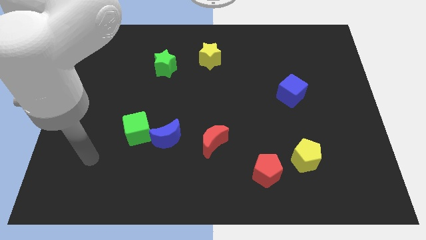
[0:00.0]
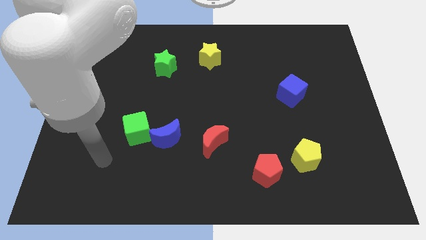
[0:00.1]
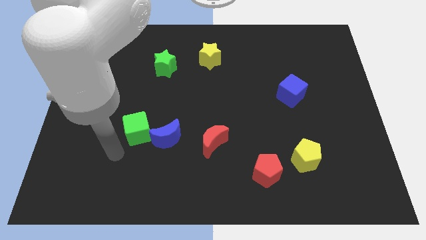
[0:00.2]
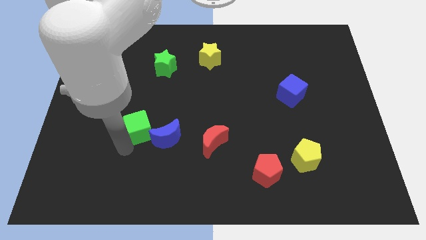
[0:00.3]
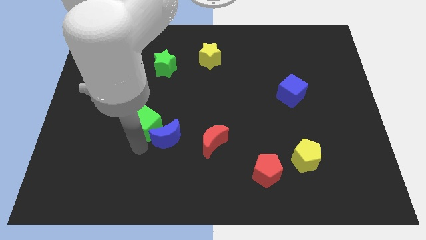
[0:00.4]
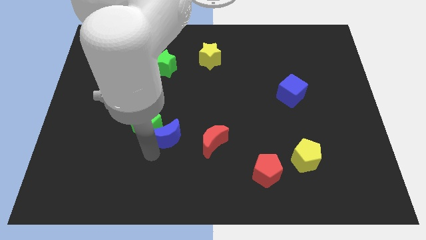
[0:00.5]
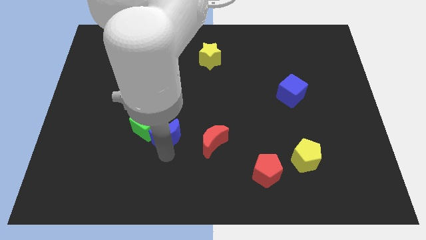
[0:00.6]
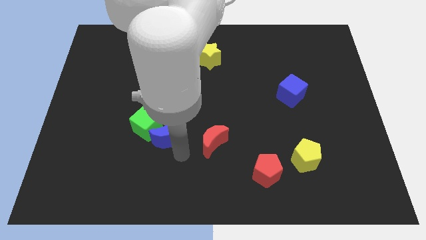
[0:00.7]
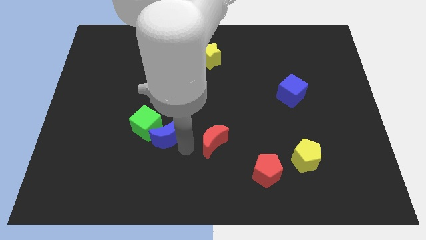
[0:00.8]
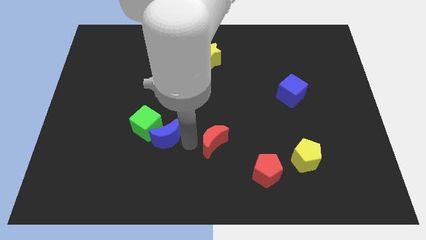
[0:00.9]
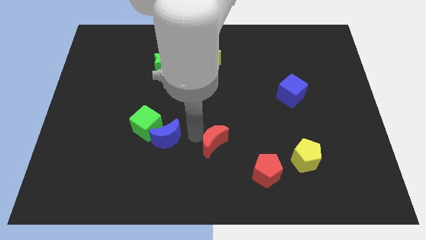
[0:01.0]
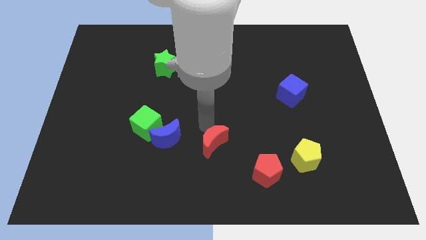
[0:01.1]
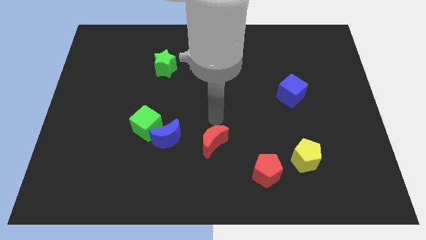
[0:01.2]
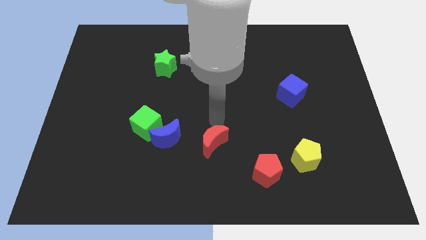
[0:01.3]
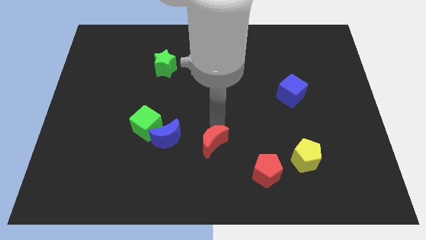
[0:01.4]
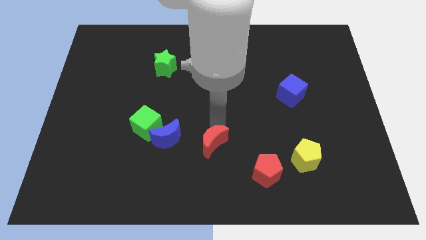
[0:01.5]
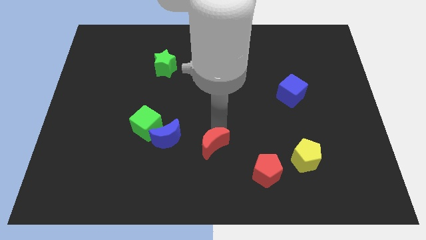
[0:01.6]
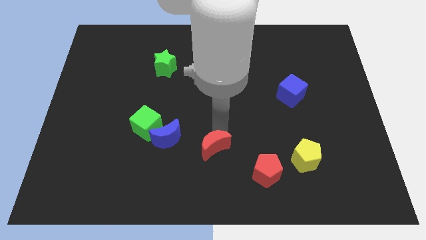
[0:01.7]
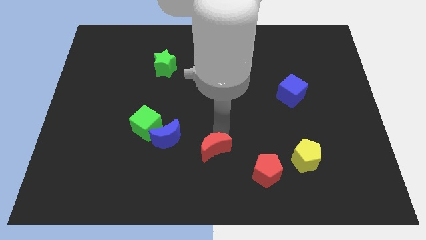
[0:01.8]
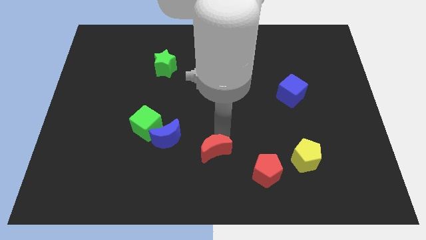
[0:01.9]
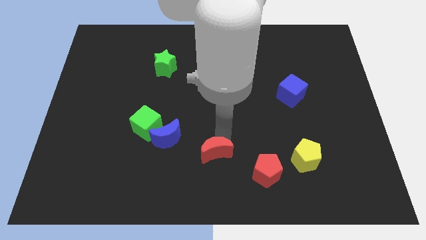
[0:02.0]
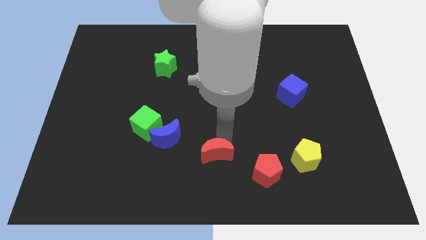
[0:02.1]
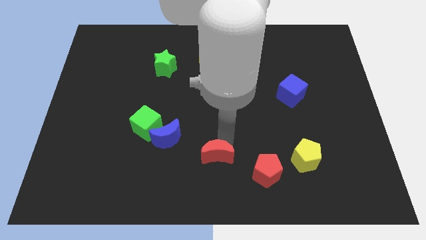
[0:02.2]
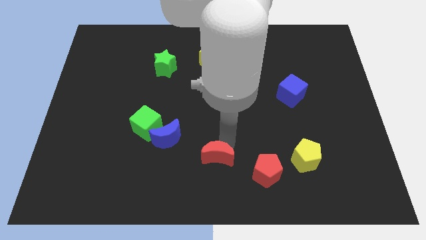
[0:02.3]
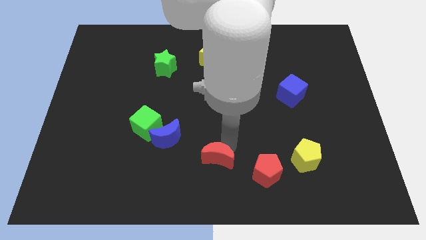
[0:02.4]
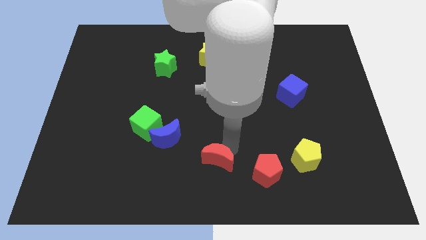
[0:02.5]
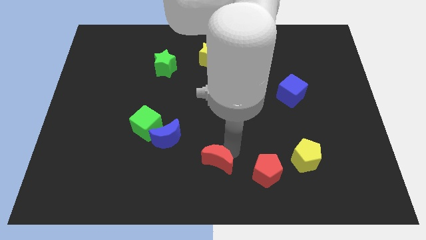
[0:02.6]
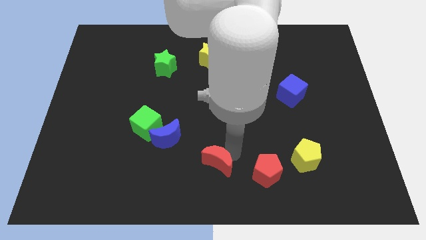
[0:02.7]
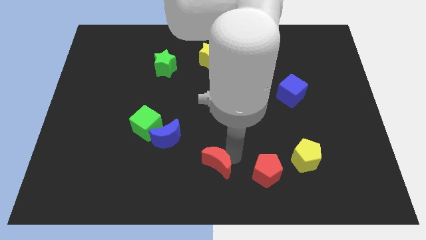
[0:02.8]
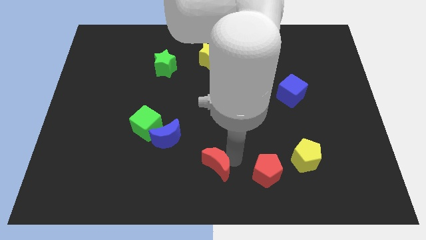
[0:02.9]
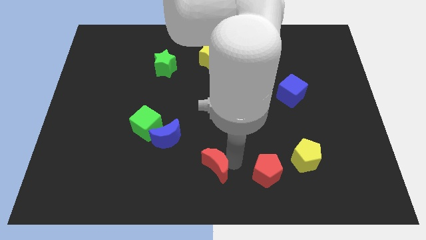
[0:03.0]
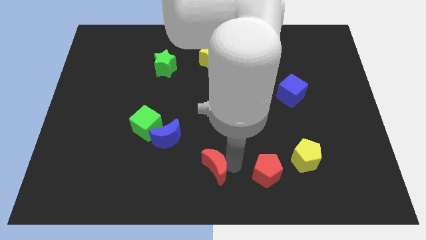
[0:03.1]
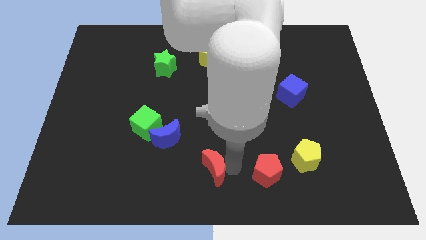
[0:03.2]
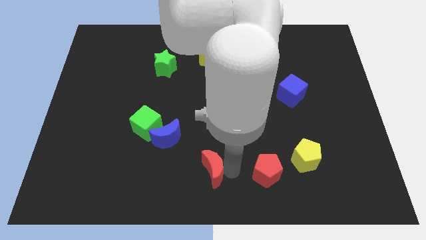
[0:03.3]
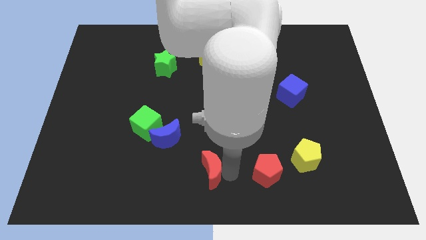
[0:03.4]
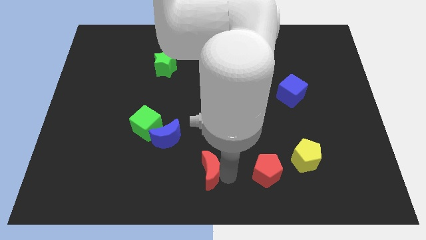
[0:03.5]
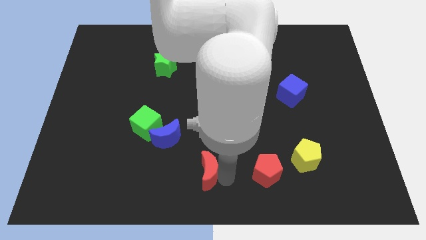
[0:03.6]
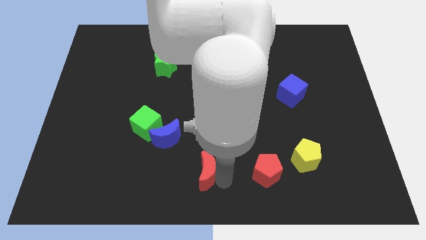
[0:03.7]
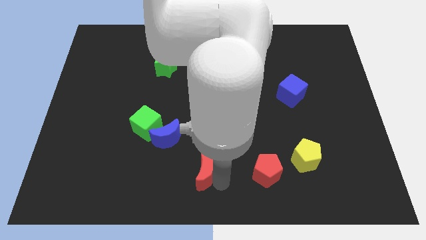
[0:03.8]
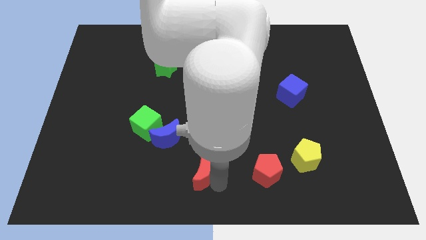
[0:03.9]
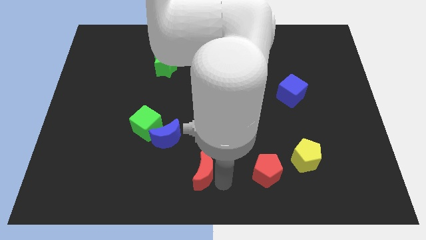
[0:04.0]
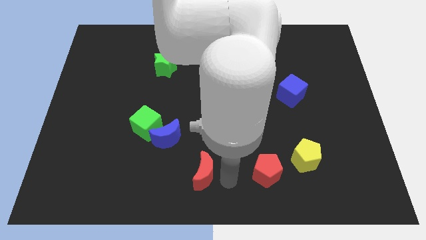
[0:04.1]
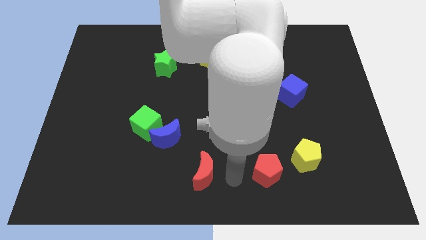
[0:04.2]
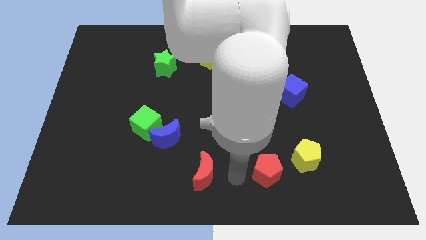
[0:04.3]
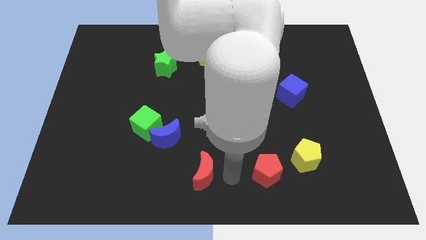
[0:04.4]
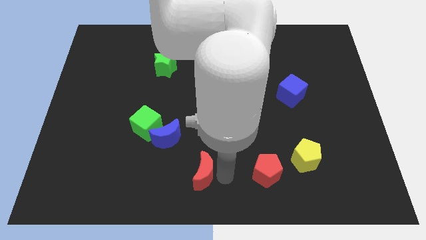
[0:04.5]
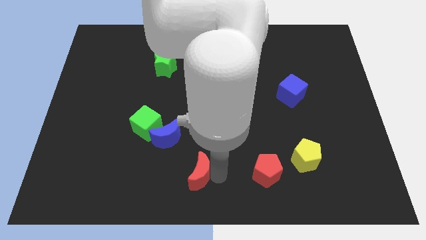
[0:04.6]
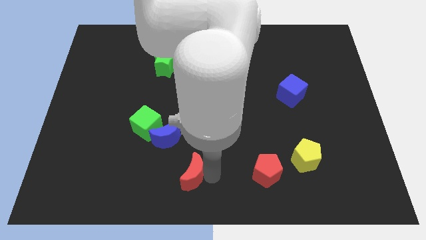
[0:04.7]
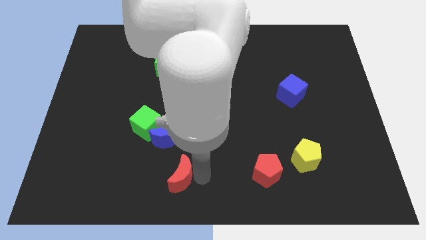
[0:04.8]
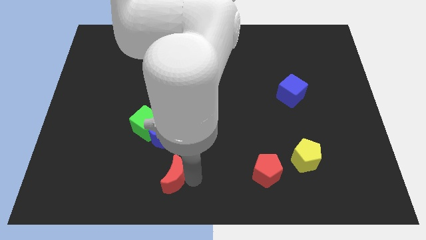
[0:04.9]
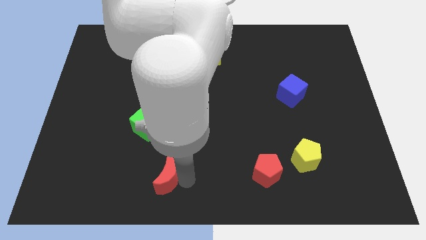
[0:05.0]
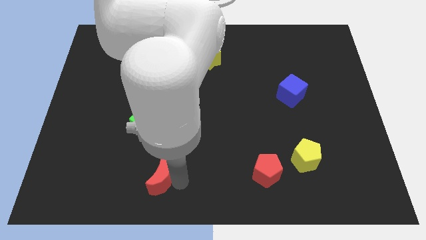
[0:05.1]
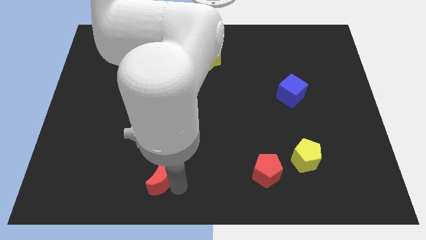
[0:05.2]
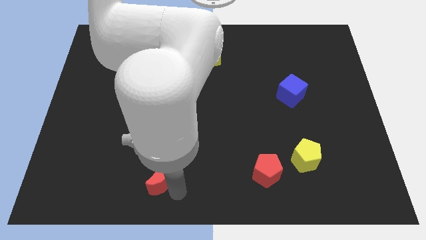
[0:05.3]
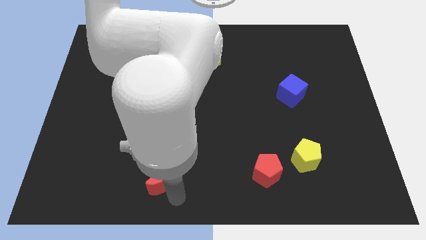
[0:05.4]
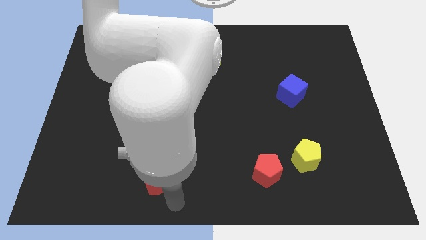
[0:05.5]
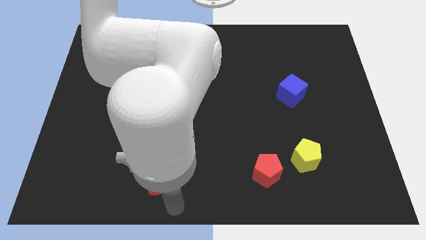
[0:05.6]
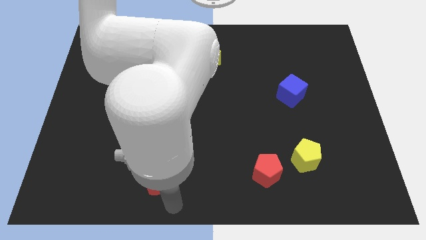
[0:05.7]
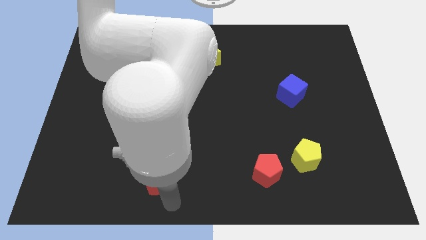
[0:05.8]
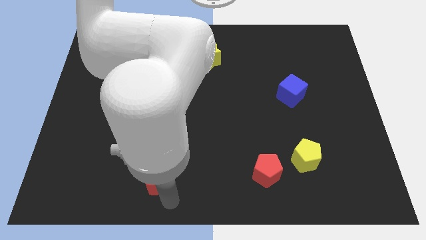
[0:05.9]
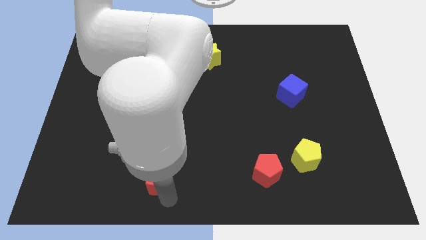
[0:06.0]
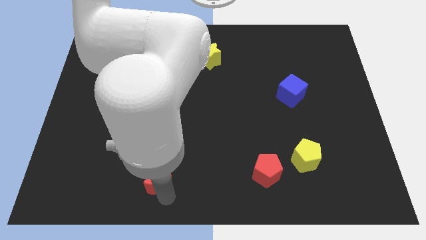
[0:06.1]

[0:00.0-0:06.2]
slightly slide the red moon to the left

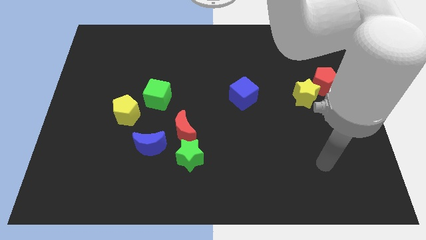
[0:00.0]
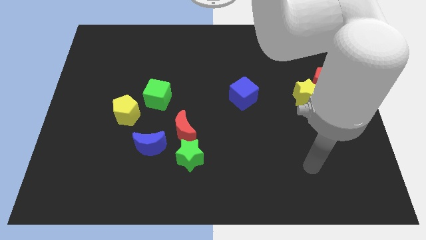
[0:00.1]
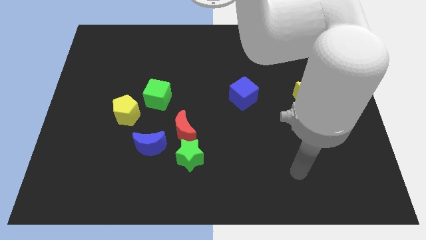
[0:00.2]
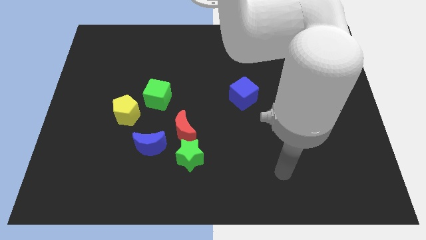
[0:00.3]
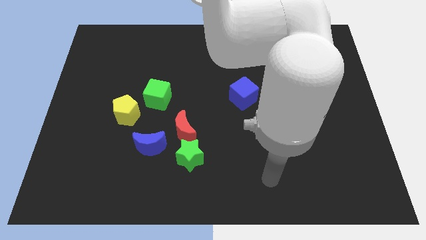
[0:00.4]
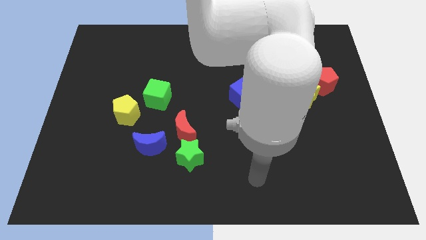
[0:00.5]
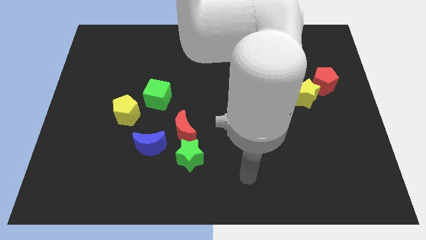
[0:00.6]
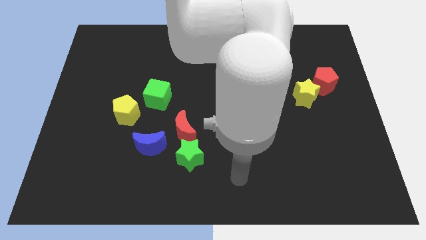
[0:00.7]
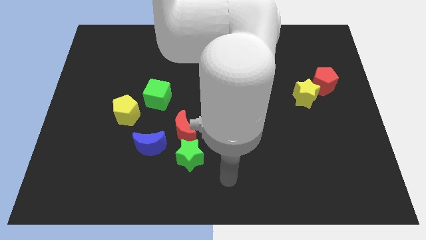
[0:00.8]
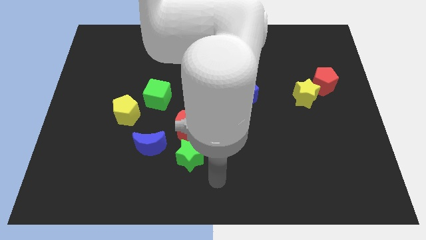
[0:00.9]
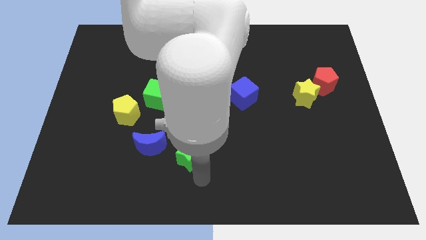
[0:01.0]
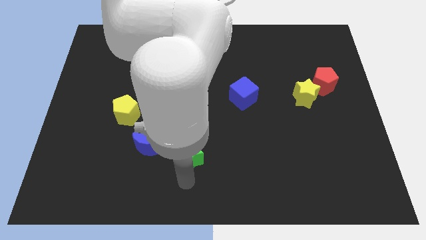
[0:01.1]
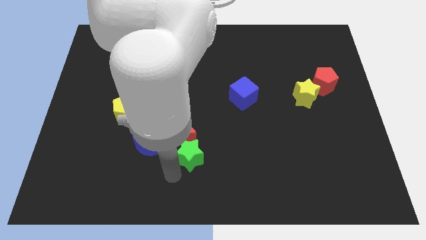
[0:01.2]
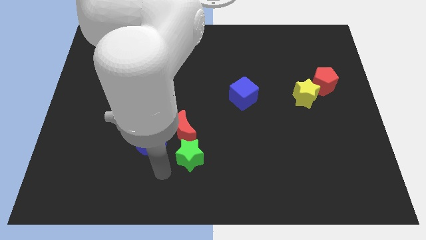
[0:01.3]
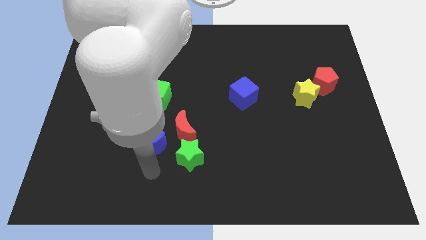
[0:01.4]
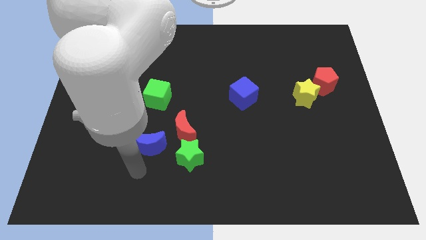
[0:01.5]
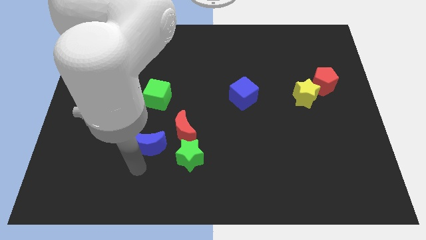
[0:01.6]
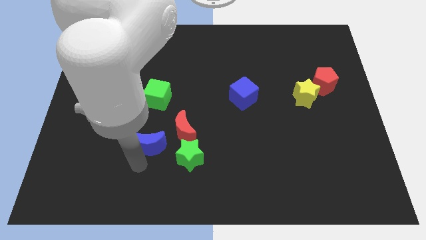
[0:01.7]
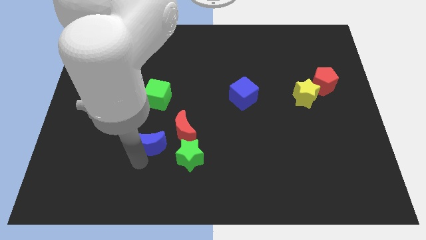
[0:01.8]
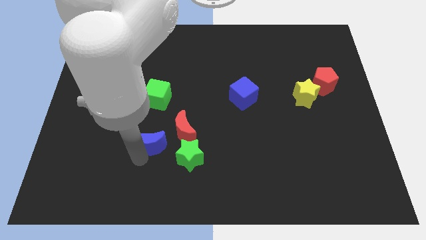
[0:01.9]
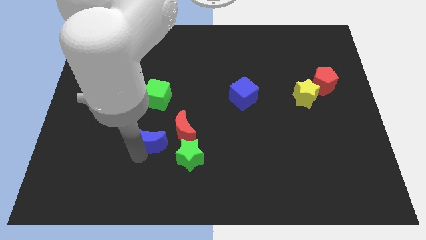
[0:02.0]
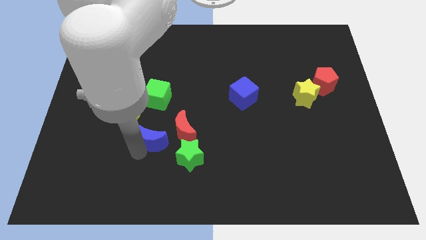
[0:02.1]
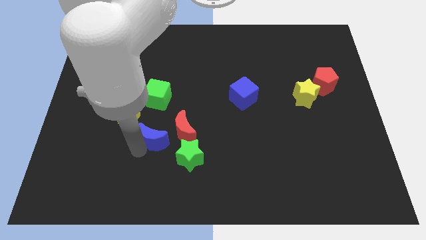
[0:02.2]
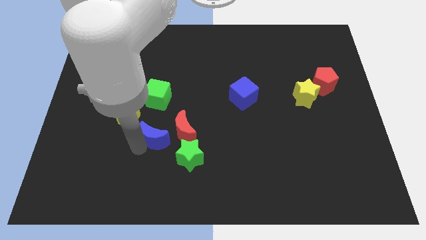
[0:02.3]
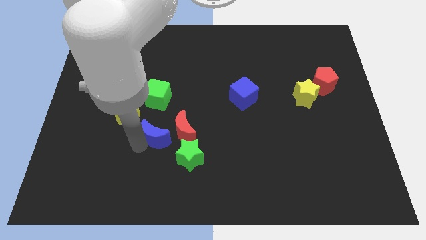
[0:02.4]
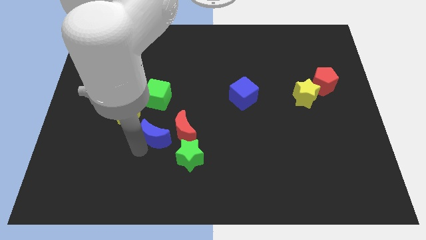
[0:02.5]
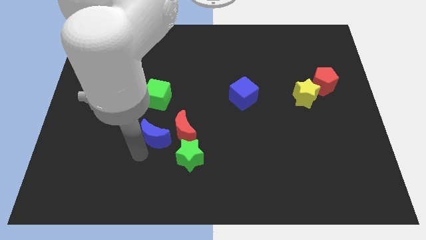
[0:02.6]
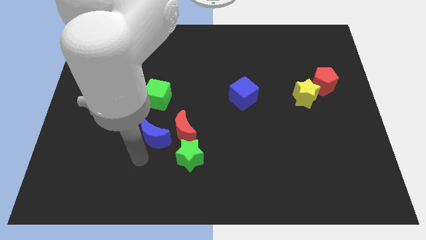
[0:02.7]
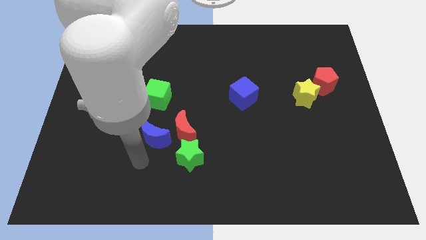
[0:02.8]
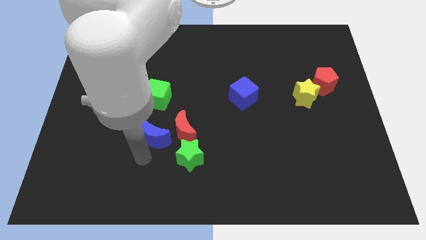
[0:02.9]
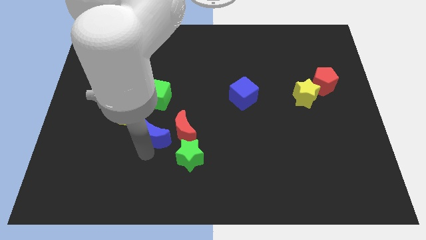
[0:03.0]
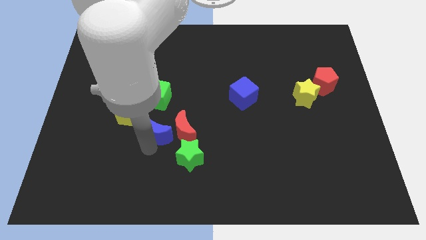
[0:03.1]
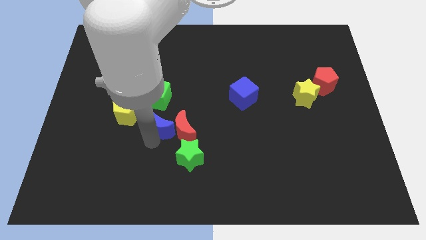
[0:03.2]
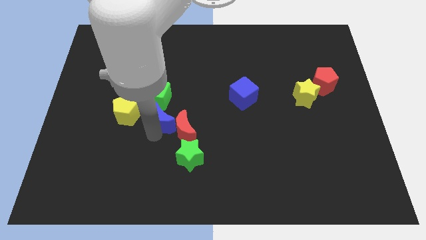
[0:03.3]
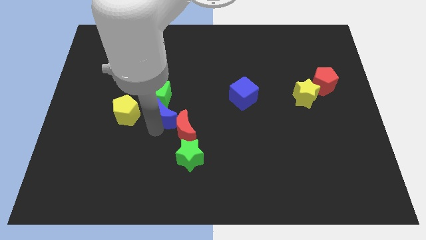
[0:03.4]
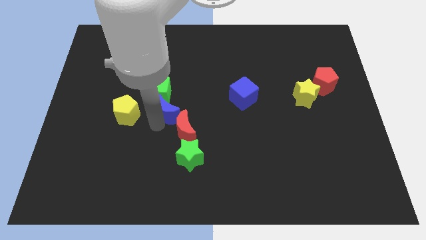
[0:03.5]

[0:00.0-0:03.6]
slightly slide the blue moon up and right
